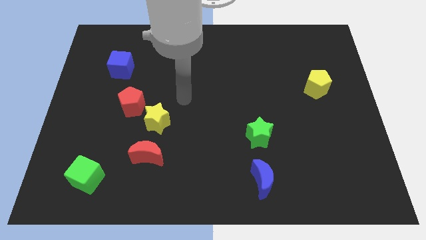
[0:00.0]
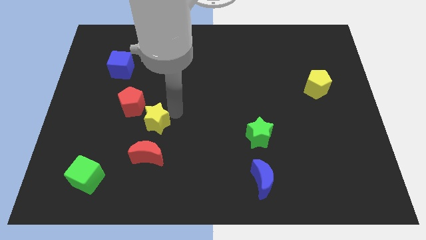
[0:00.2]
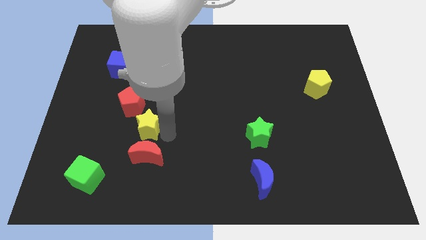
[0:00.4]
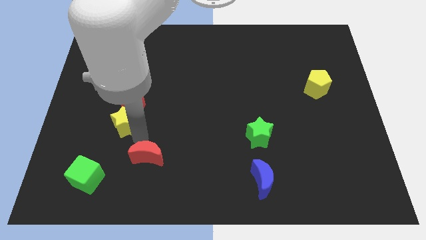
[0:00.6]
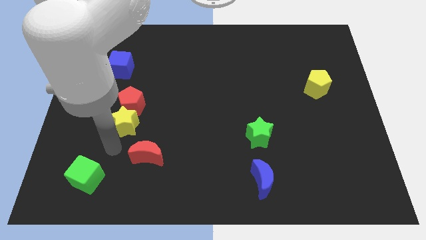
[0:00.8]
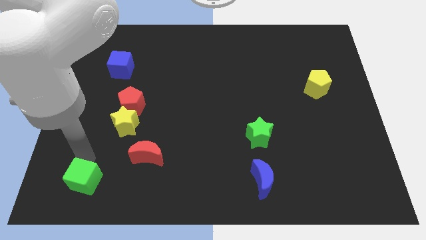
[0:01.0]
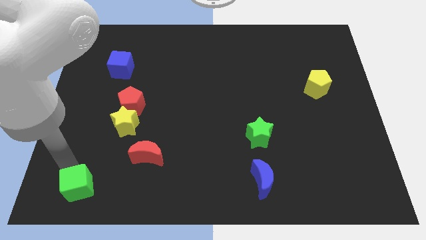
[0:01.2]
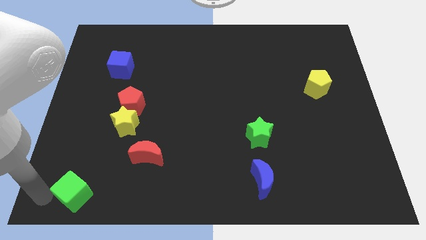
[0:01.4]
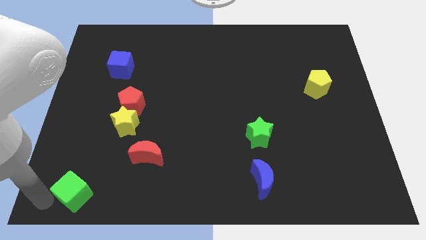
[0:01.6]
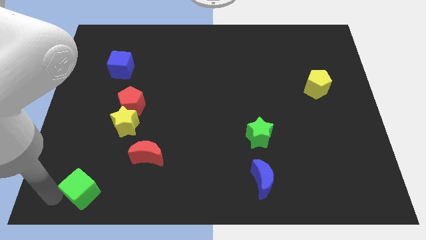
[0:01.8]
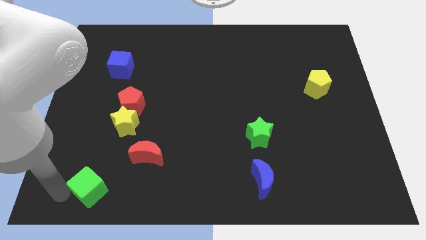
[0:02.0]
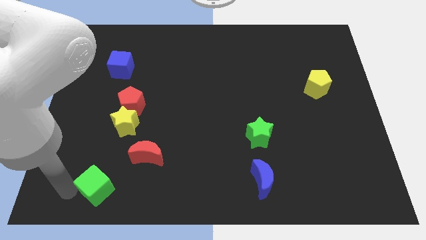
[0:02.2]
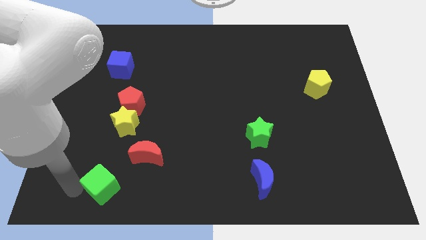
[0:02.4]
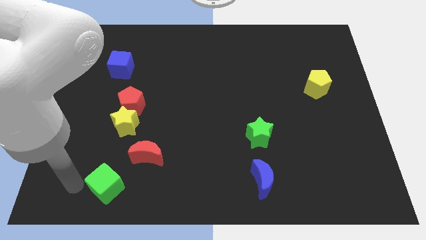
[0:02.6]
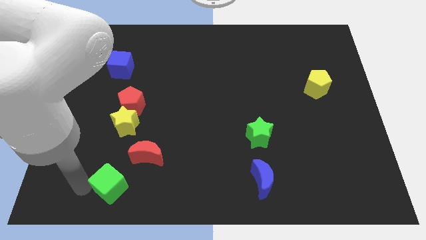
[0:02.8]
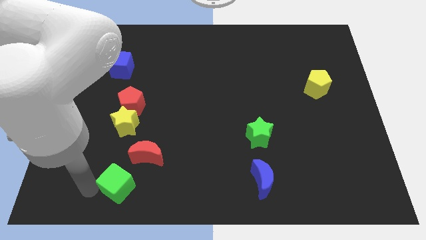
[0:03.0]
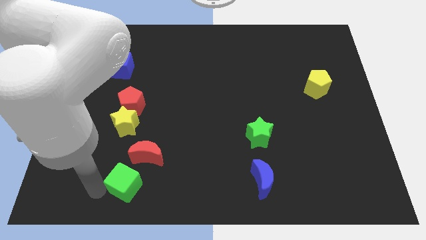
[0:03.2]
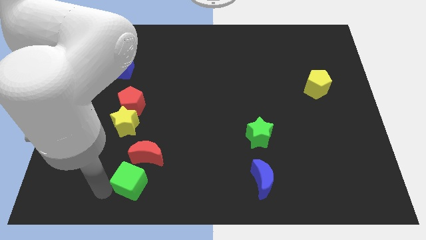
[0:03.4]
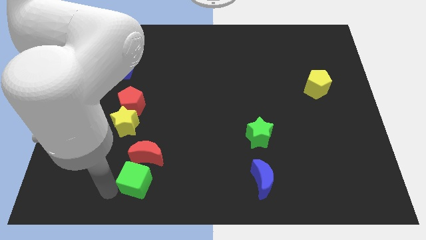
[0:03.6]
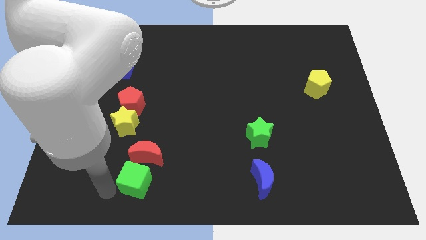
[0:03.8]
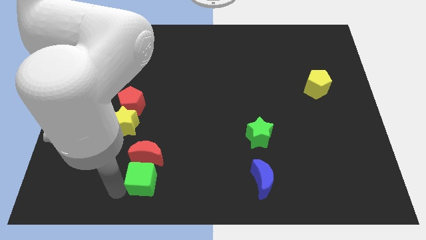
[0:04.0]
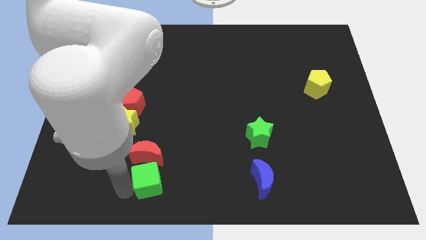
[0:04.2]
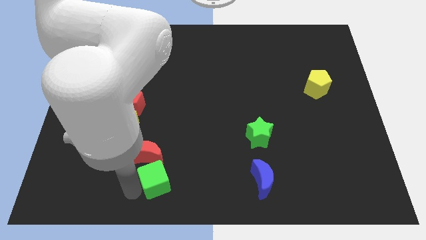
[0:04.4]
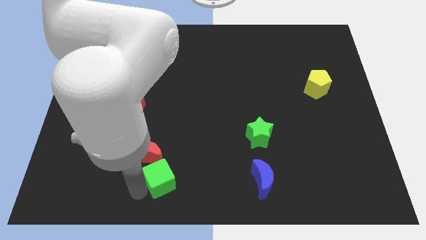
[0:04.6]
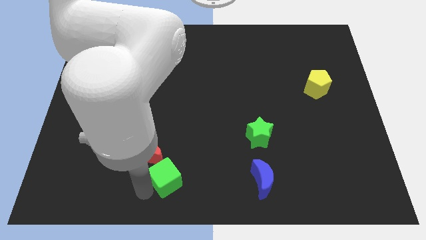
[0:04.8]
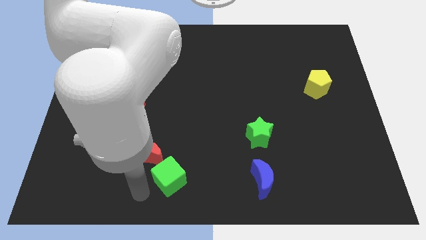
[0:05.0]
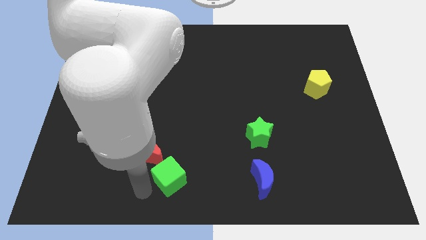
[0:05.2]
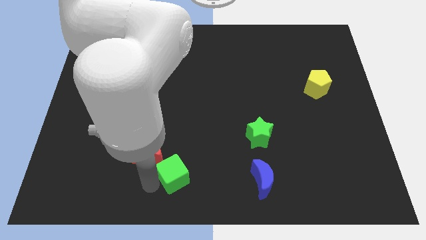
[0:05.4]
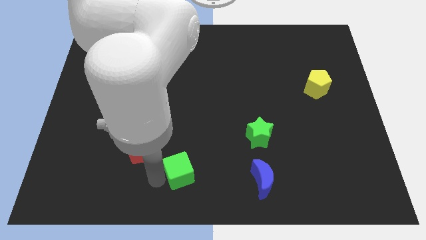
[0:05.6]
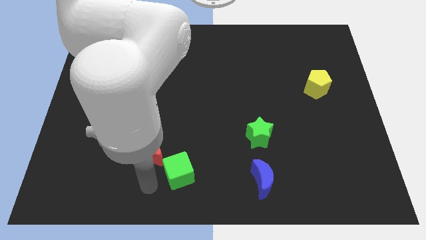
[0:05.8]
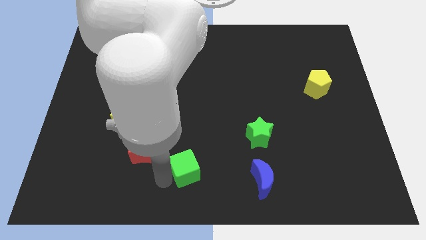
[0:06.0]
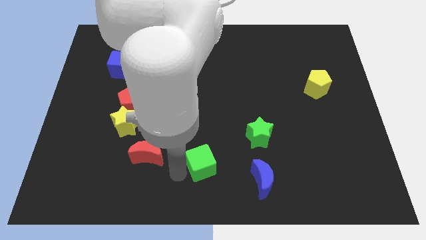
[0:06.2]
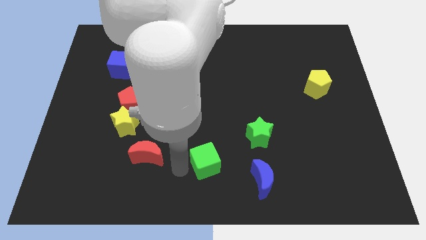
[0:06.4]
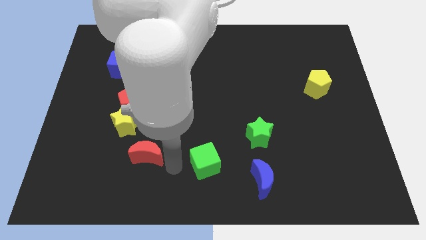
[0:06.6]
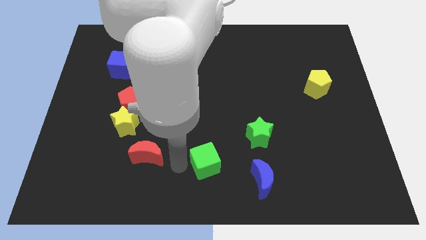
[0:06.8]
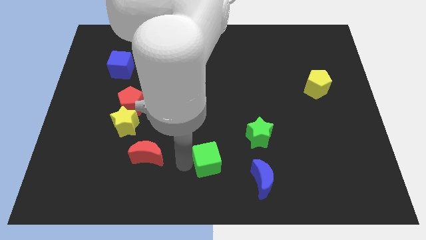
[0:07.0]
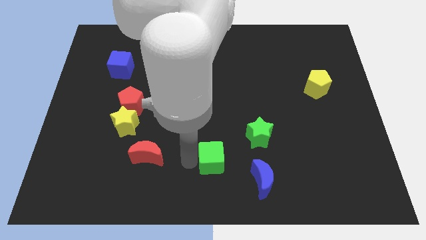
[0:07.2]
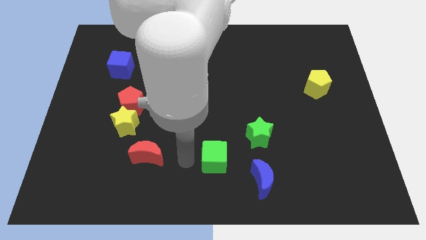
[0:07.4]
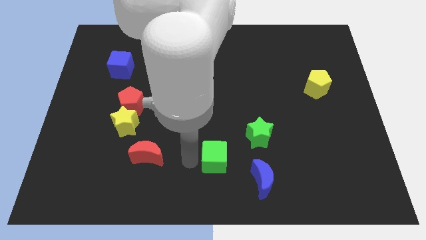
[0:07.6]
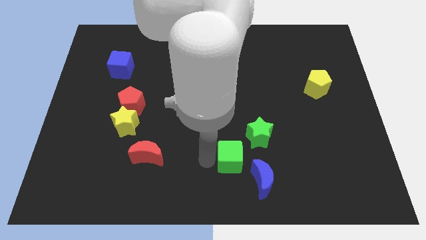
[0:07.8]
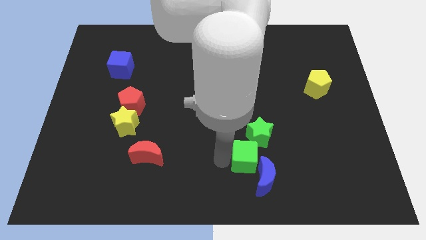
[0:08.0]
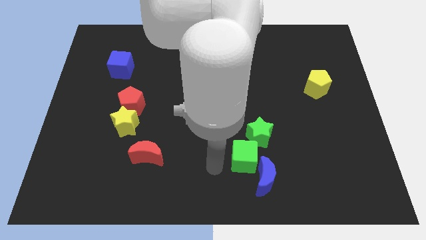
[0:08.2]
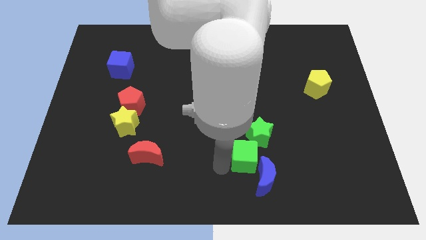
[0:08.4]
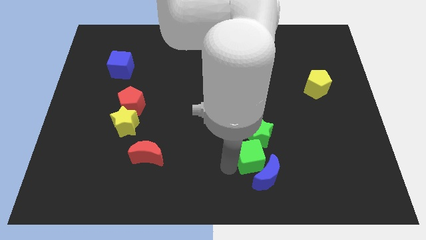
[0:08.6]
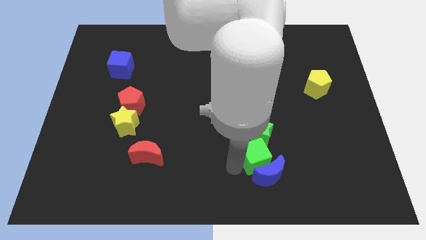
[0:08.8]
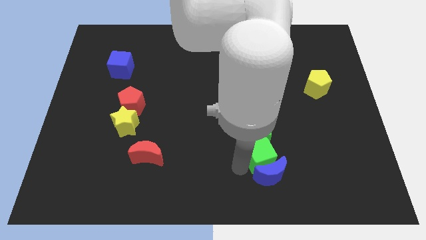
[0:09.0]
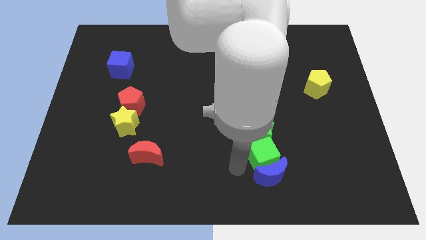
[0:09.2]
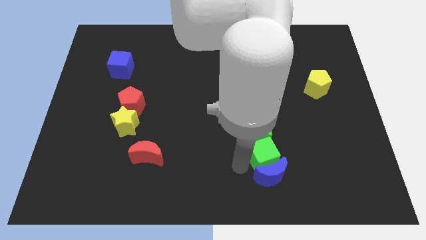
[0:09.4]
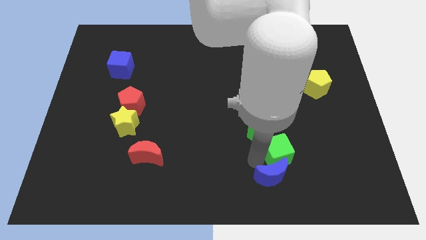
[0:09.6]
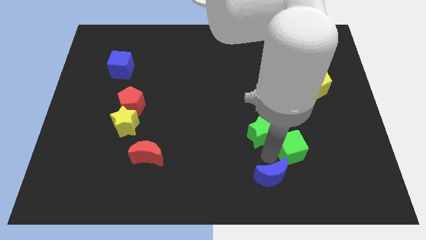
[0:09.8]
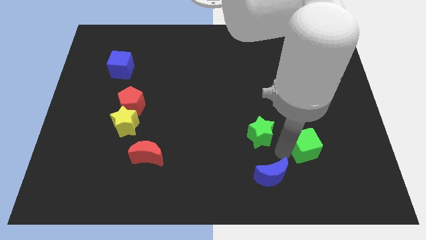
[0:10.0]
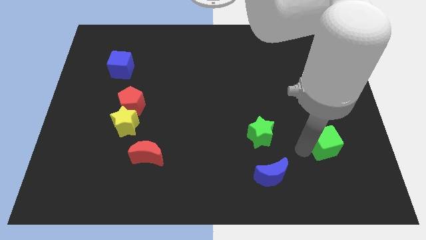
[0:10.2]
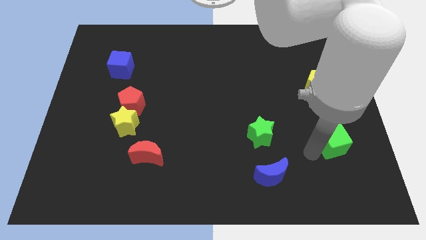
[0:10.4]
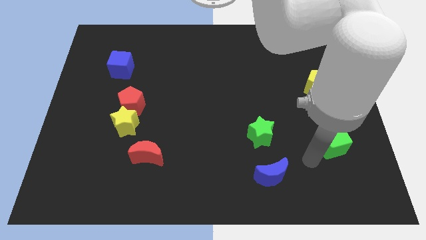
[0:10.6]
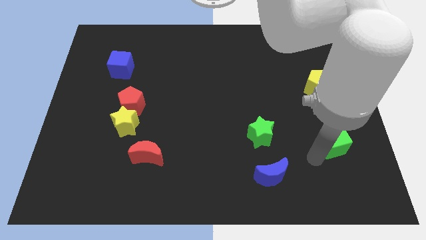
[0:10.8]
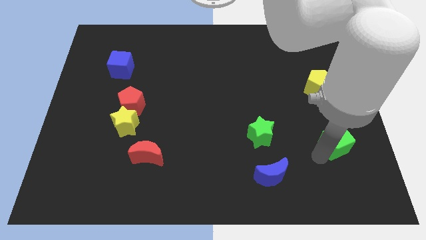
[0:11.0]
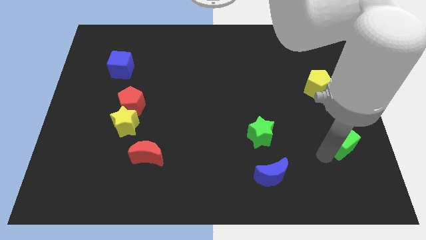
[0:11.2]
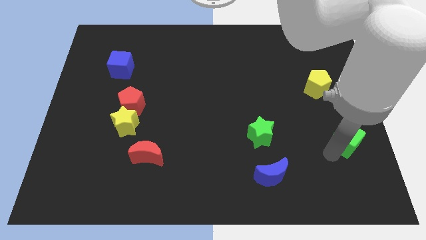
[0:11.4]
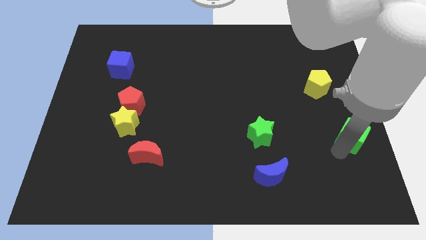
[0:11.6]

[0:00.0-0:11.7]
slide the green cube to the center right
